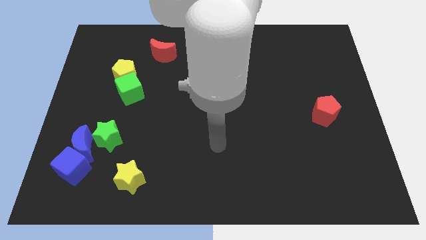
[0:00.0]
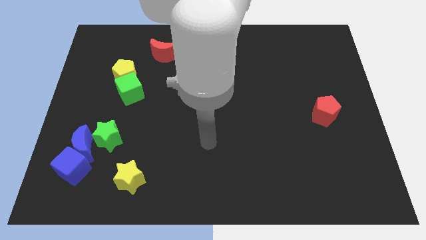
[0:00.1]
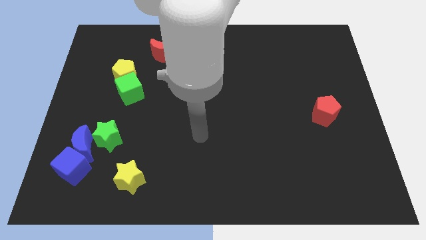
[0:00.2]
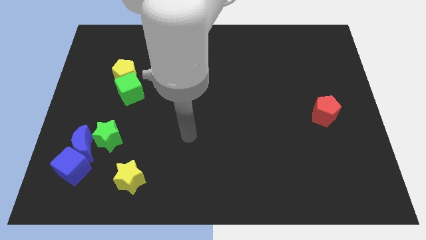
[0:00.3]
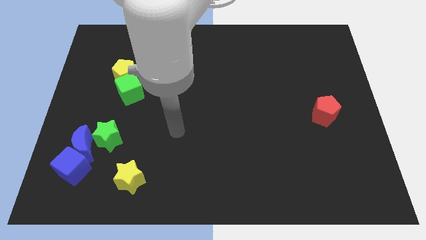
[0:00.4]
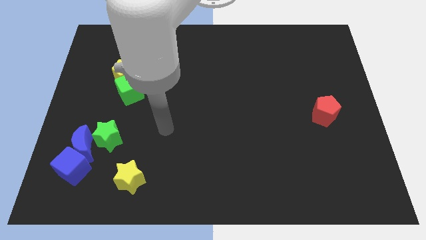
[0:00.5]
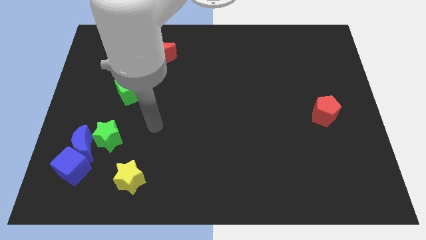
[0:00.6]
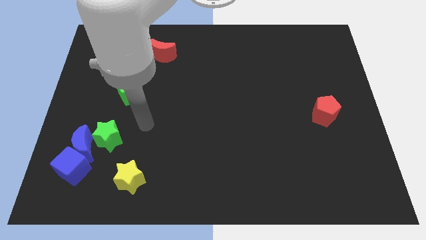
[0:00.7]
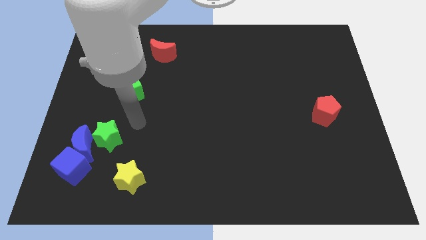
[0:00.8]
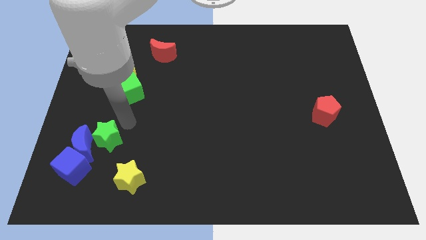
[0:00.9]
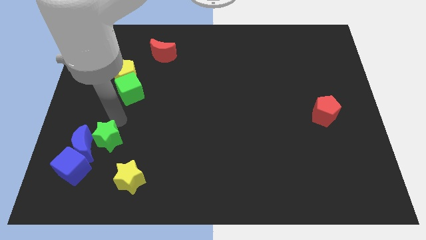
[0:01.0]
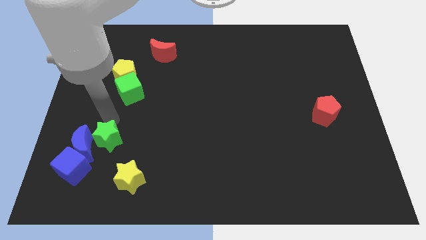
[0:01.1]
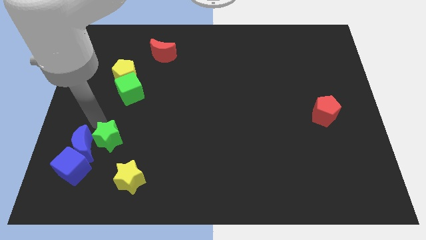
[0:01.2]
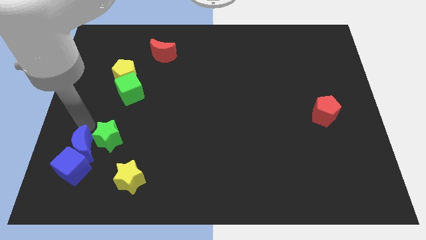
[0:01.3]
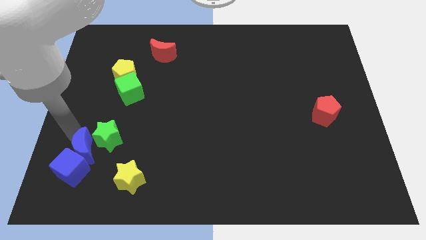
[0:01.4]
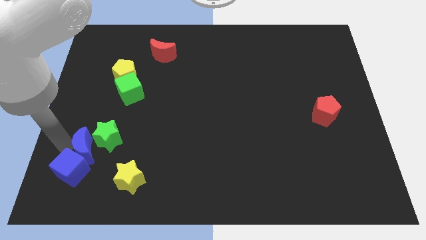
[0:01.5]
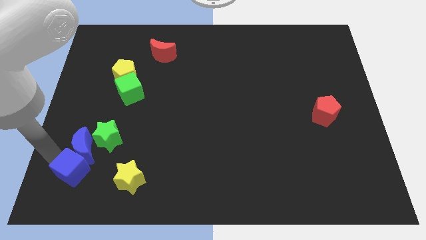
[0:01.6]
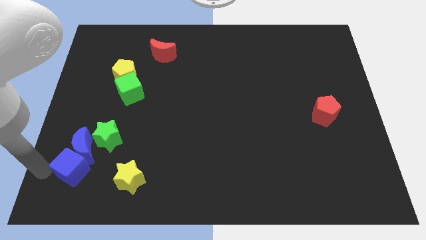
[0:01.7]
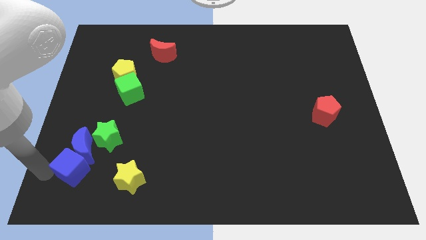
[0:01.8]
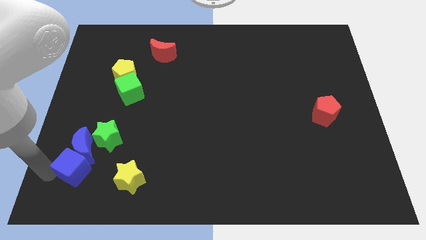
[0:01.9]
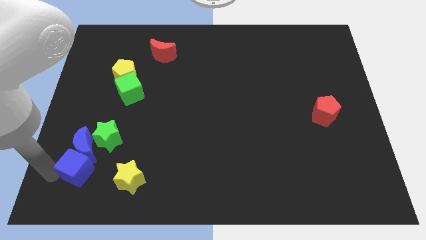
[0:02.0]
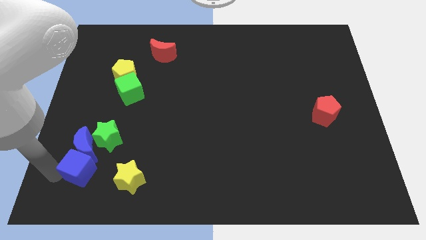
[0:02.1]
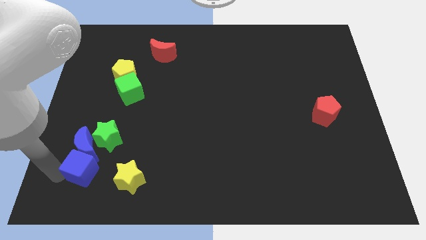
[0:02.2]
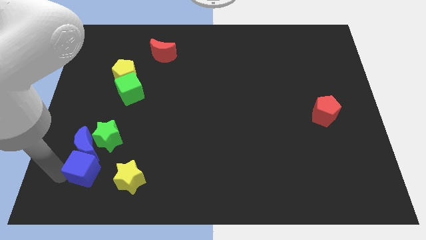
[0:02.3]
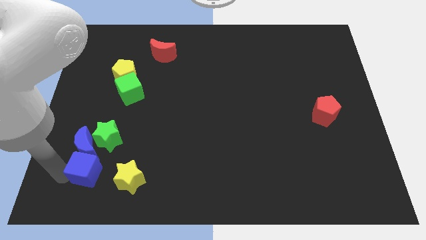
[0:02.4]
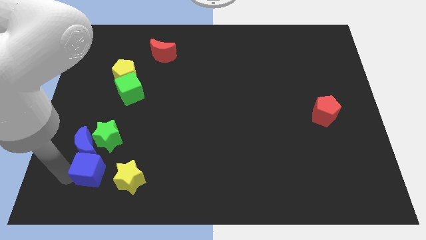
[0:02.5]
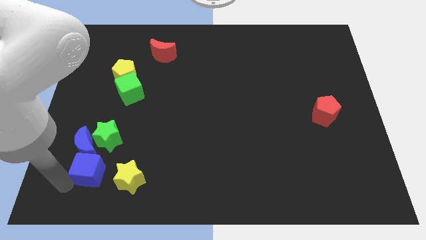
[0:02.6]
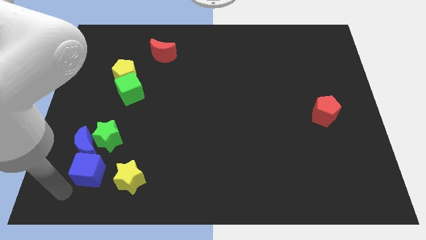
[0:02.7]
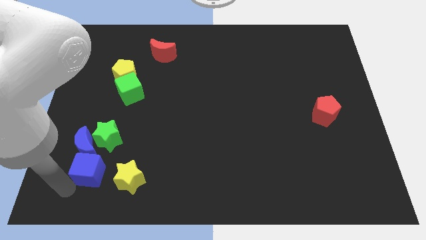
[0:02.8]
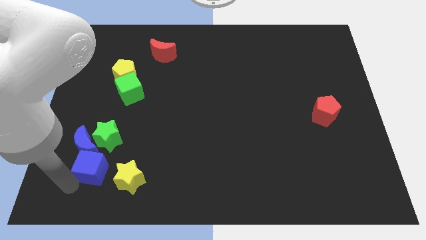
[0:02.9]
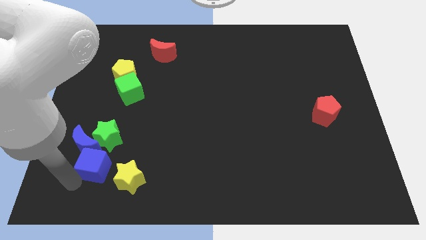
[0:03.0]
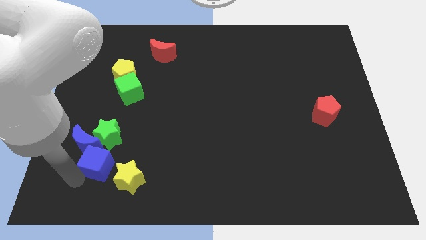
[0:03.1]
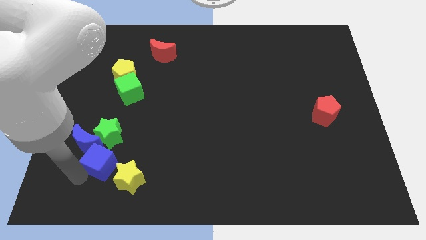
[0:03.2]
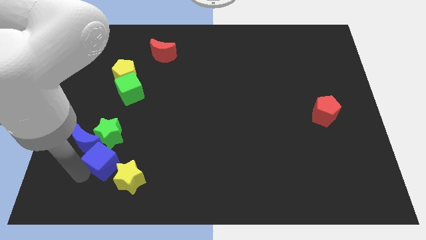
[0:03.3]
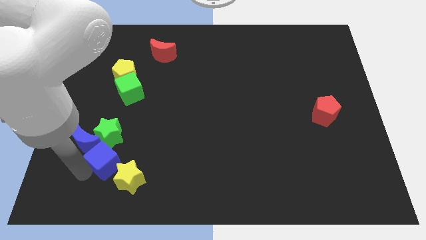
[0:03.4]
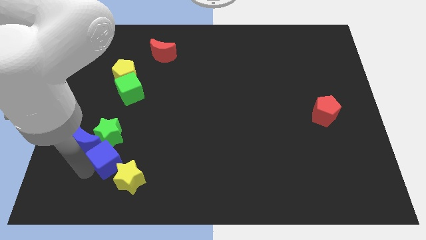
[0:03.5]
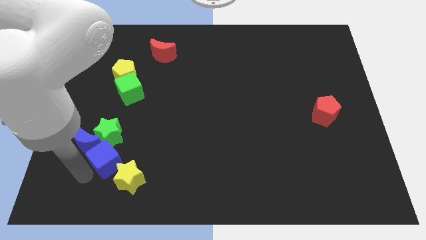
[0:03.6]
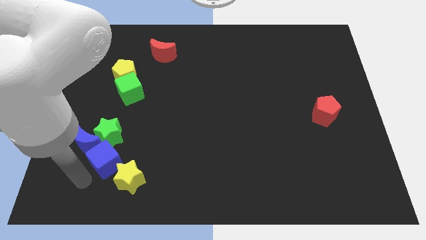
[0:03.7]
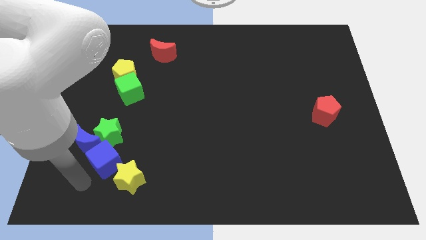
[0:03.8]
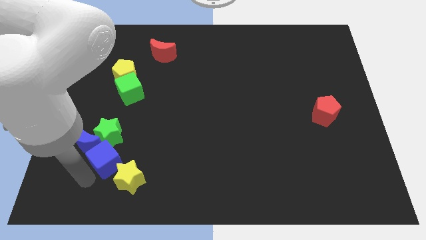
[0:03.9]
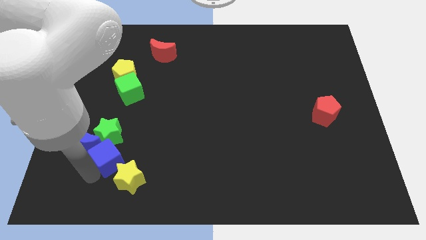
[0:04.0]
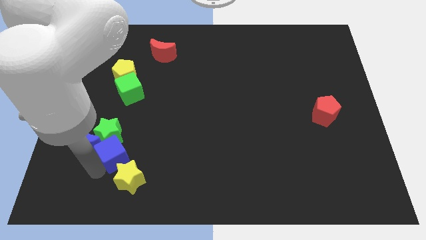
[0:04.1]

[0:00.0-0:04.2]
slide the blue cube slightly diagonally up and to the right

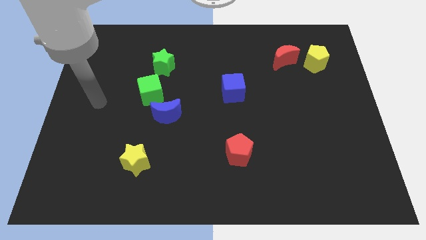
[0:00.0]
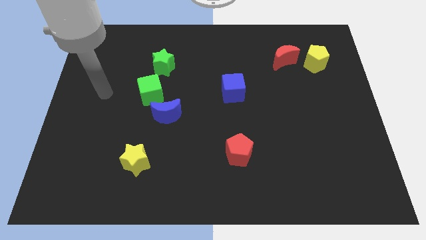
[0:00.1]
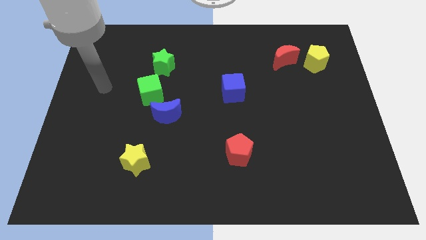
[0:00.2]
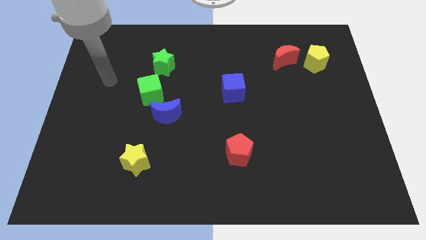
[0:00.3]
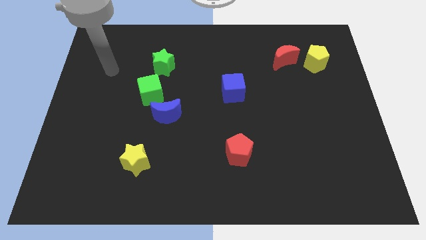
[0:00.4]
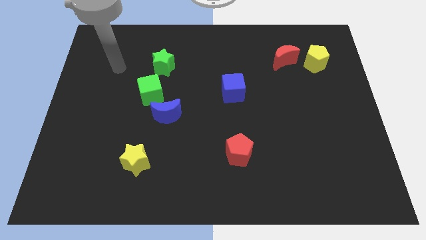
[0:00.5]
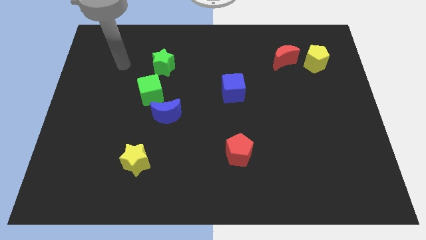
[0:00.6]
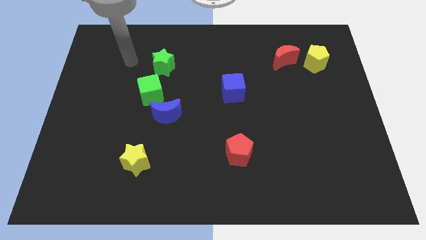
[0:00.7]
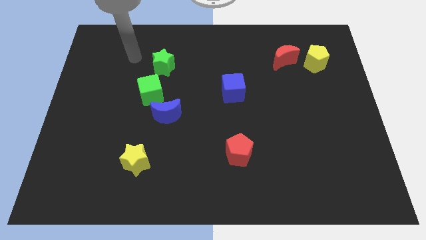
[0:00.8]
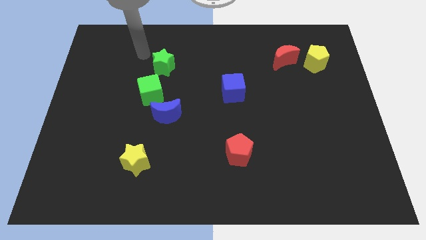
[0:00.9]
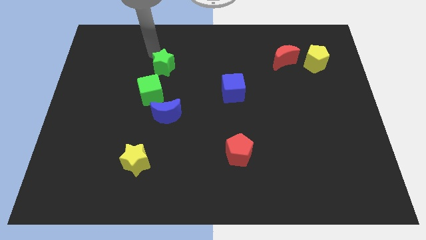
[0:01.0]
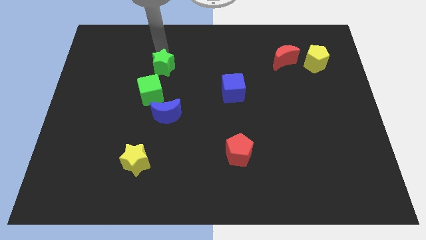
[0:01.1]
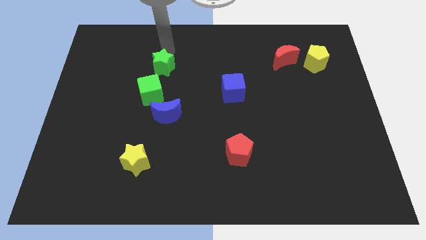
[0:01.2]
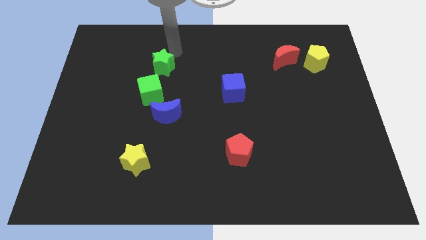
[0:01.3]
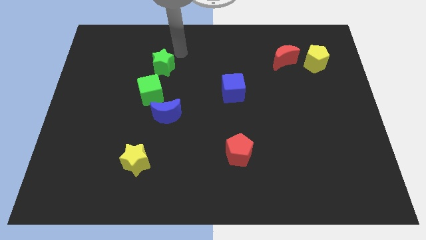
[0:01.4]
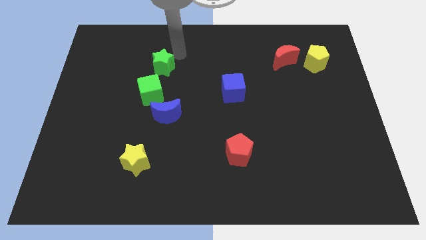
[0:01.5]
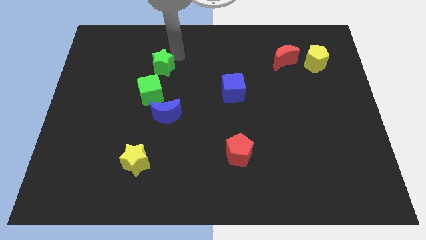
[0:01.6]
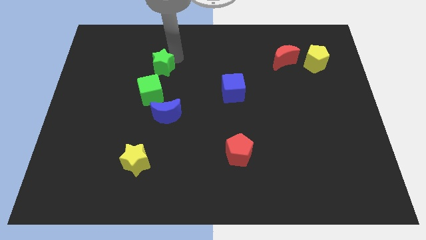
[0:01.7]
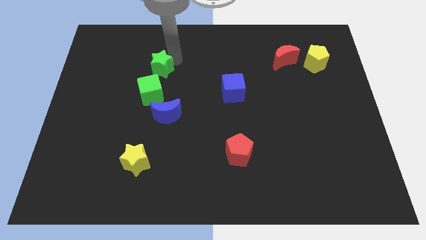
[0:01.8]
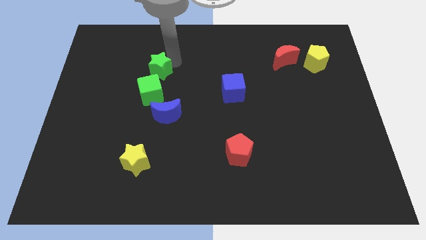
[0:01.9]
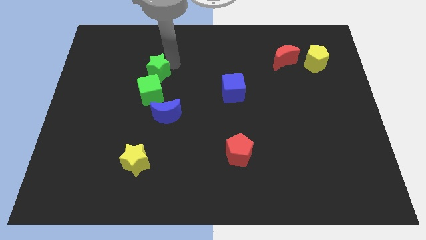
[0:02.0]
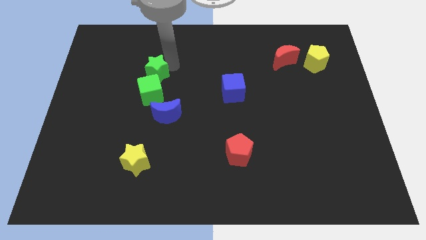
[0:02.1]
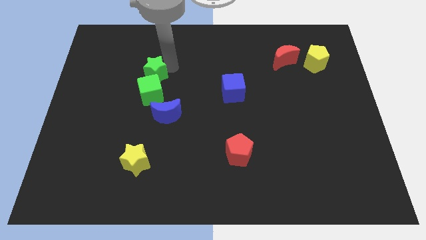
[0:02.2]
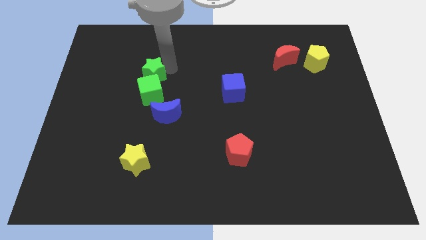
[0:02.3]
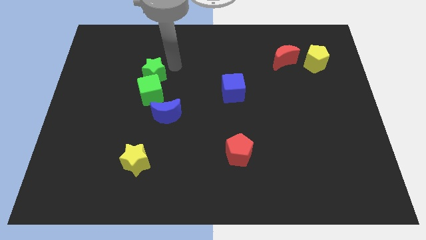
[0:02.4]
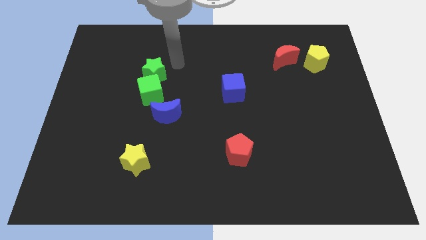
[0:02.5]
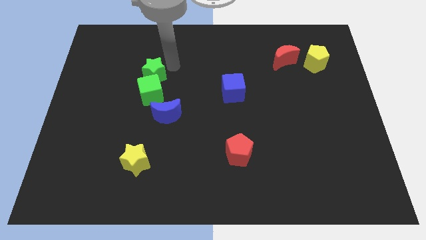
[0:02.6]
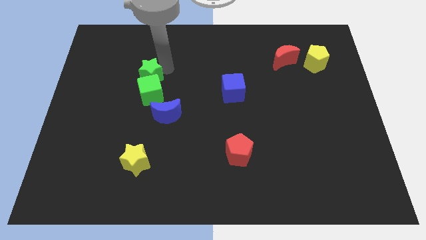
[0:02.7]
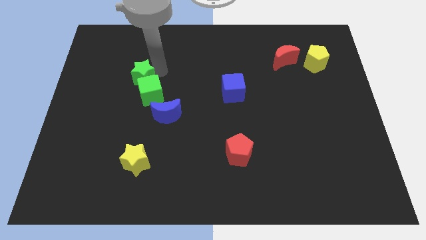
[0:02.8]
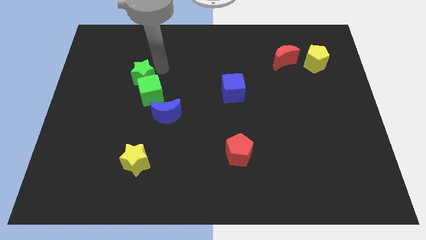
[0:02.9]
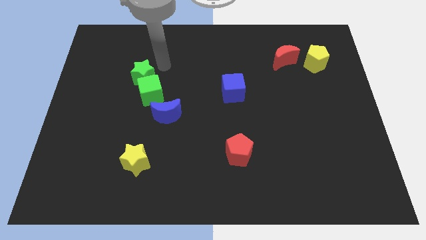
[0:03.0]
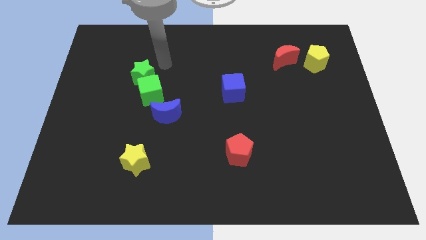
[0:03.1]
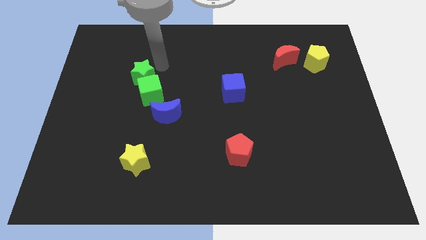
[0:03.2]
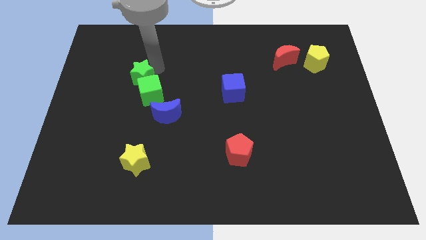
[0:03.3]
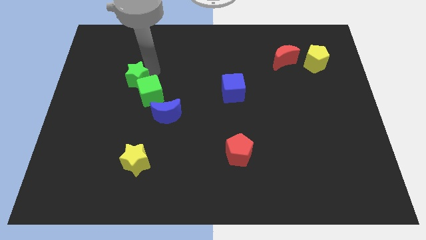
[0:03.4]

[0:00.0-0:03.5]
slightly push the green star downwards and to the left

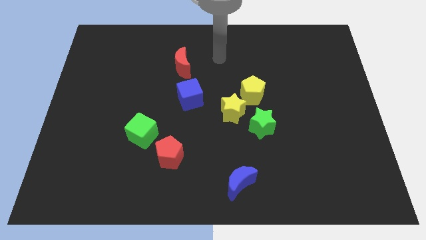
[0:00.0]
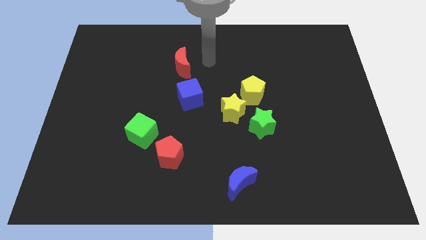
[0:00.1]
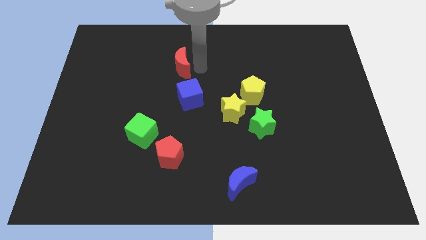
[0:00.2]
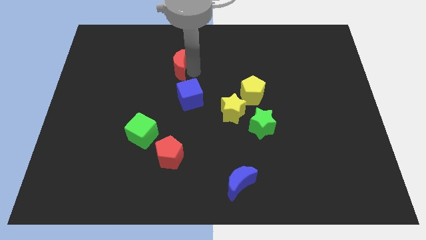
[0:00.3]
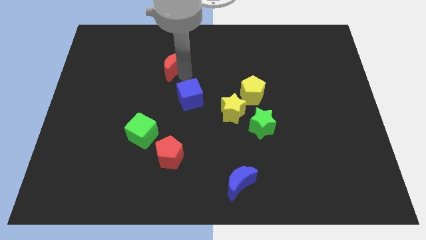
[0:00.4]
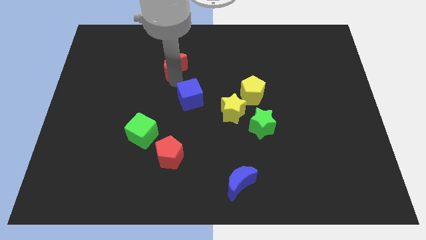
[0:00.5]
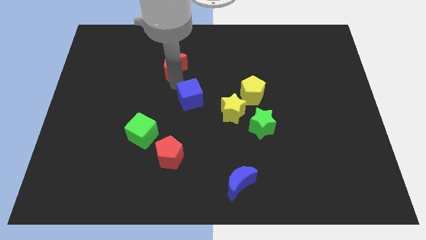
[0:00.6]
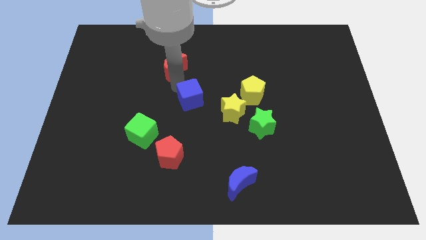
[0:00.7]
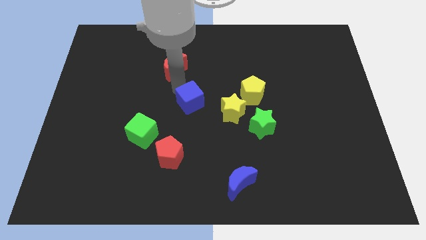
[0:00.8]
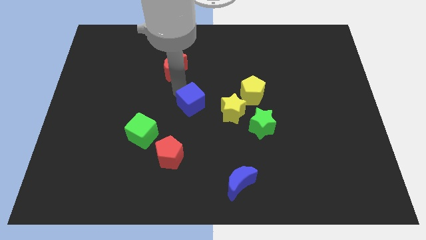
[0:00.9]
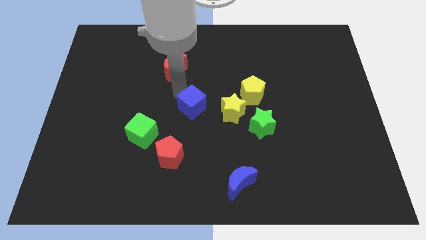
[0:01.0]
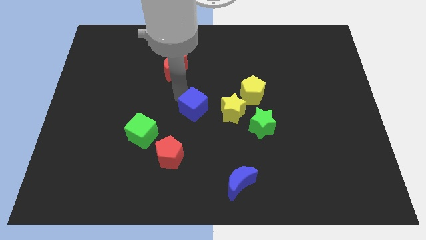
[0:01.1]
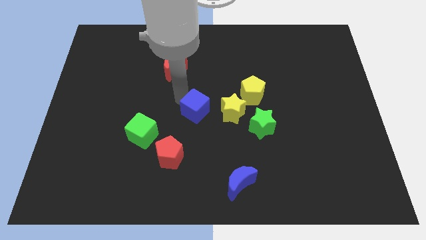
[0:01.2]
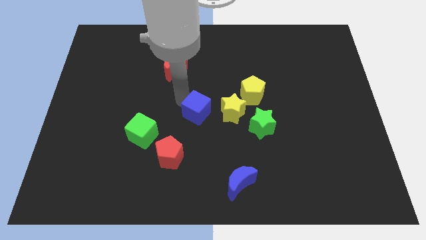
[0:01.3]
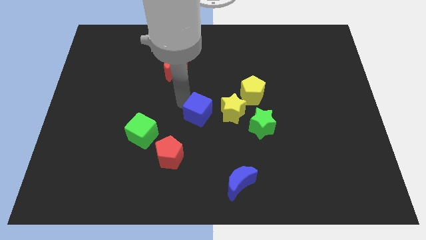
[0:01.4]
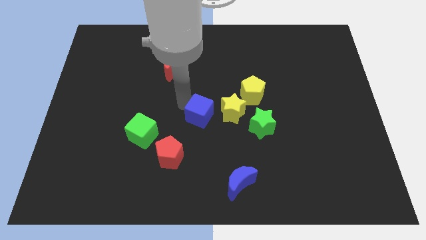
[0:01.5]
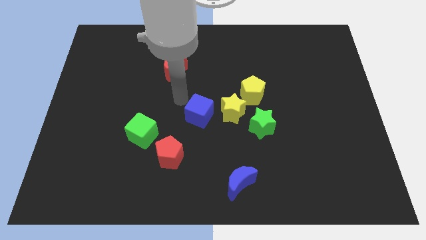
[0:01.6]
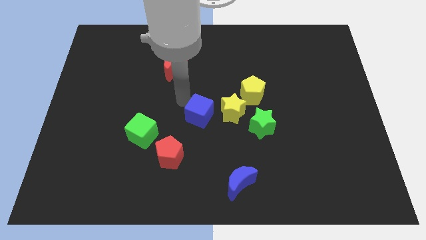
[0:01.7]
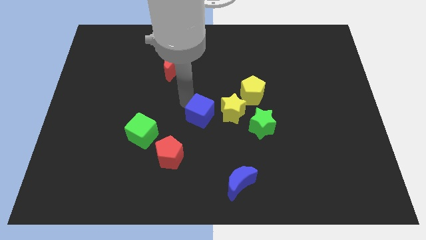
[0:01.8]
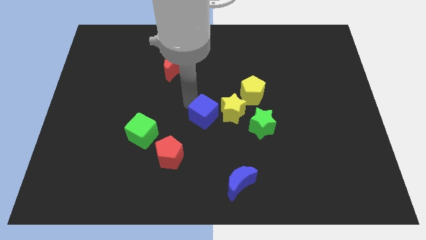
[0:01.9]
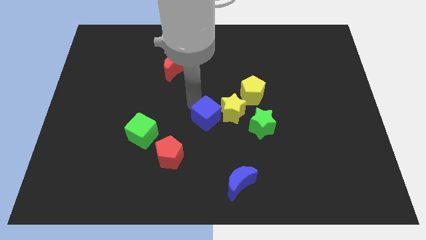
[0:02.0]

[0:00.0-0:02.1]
slightly move the blue cube diagonally down and right
